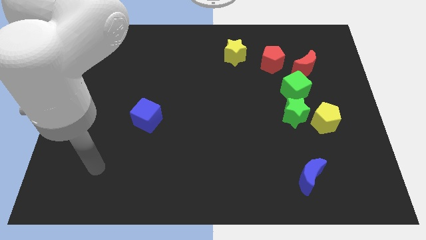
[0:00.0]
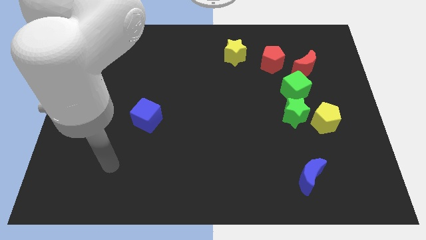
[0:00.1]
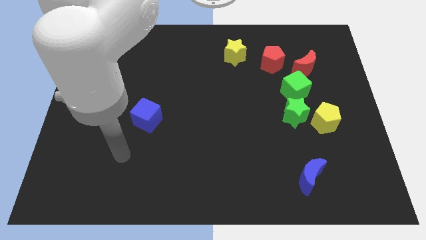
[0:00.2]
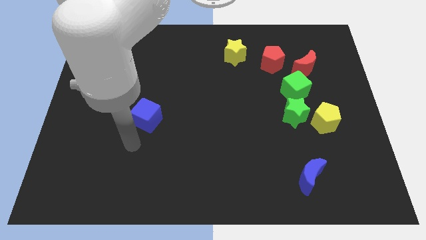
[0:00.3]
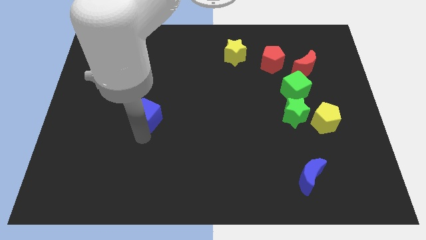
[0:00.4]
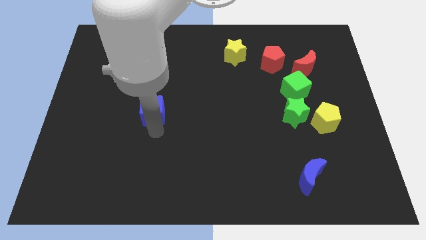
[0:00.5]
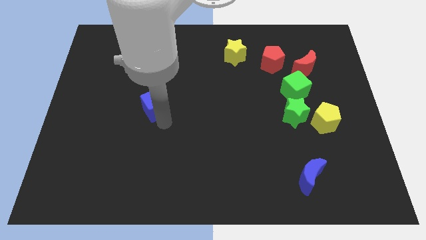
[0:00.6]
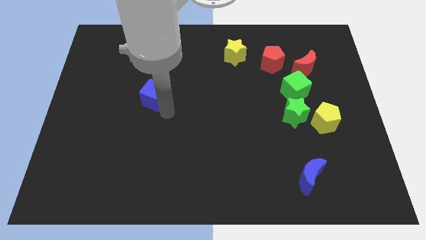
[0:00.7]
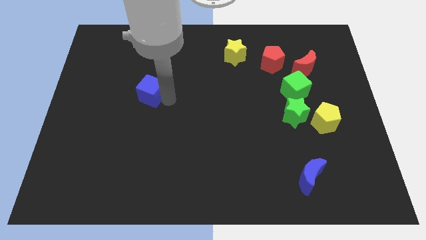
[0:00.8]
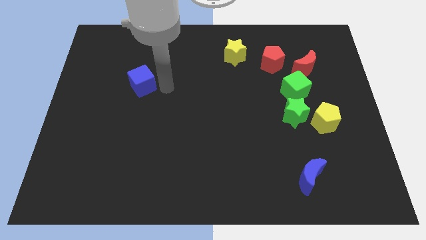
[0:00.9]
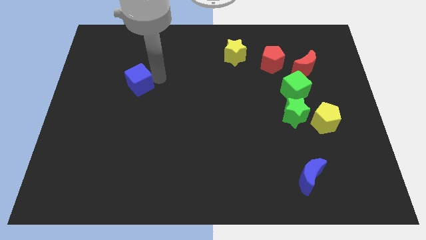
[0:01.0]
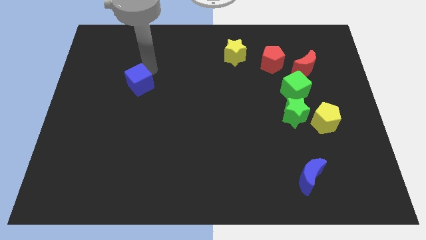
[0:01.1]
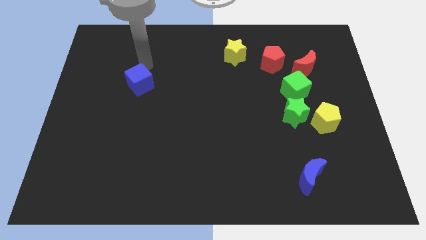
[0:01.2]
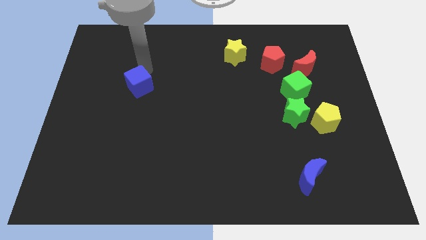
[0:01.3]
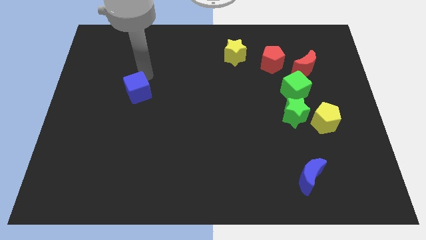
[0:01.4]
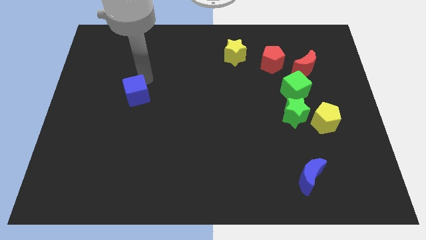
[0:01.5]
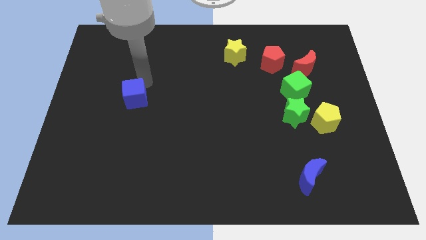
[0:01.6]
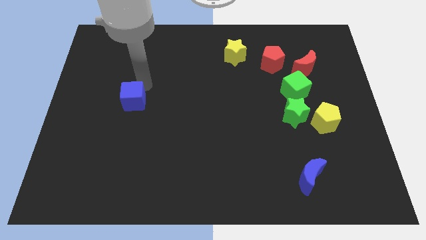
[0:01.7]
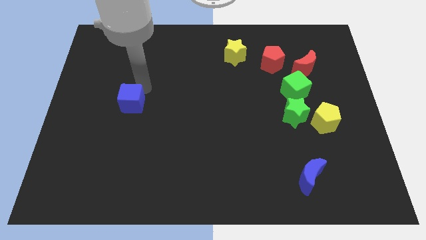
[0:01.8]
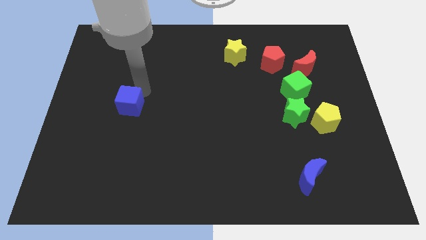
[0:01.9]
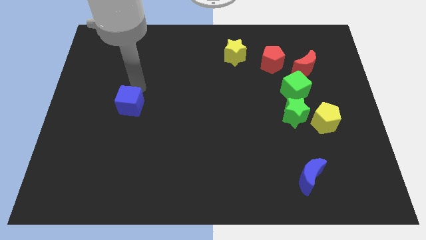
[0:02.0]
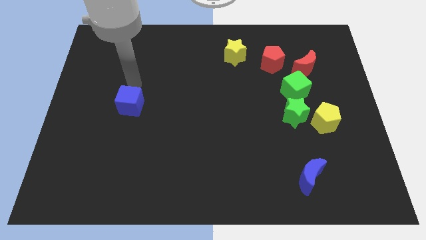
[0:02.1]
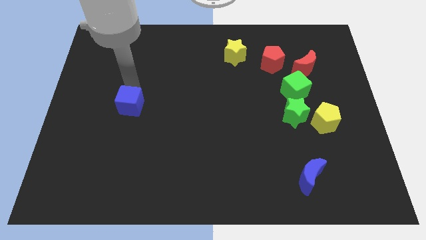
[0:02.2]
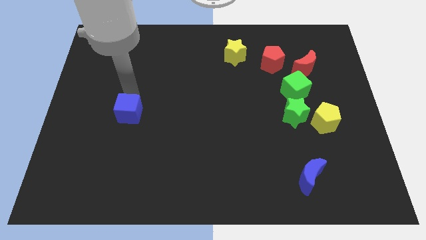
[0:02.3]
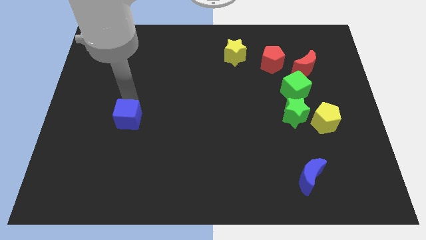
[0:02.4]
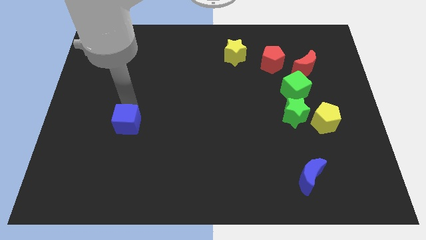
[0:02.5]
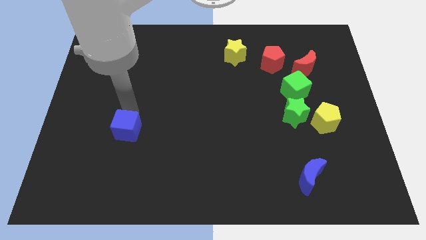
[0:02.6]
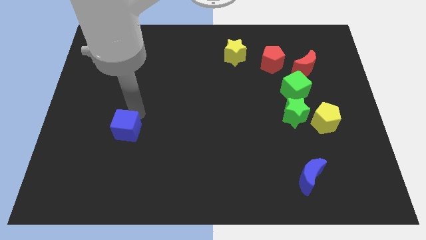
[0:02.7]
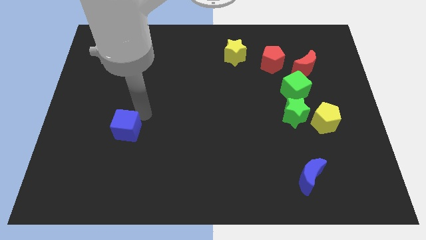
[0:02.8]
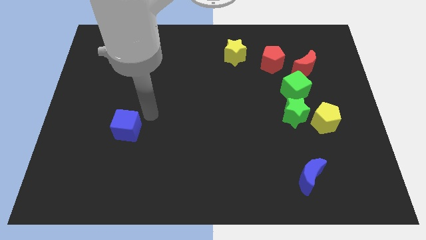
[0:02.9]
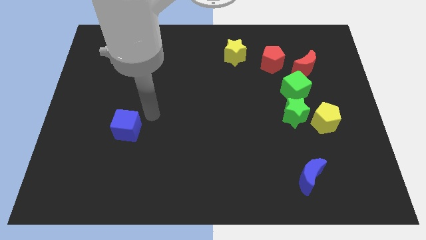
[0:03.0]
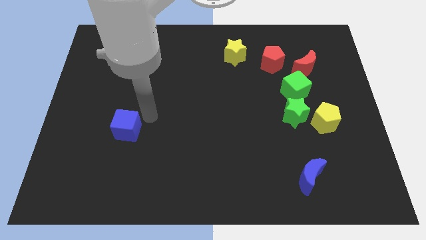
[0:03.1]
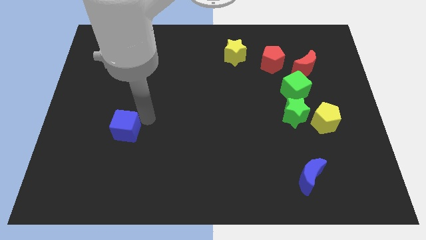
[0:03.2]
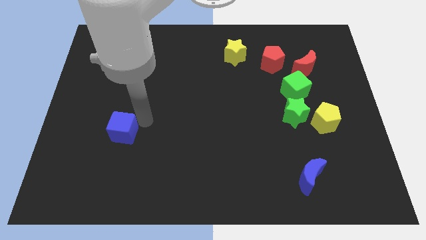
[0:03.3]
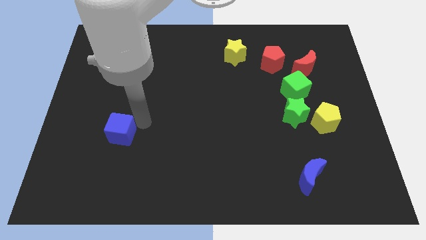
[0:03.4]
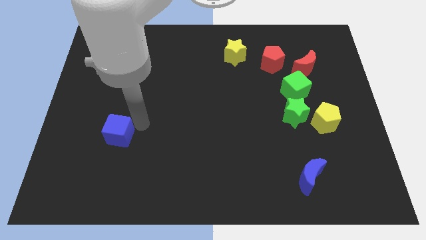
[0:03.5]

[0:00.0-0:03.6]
slide the blue cube a little bit down and left diagonally

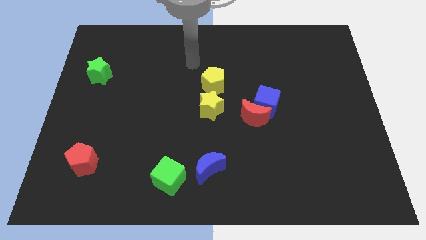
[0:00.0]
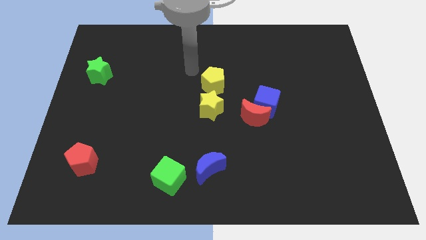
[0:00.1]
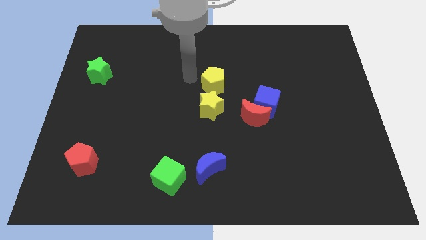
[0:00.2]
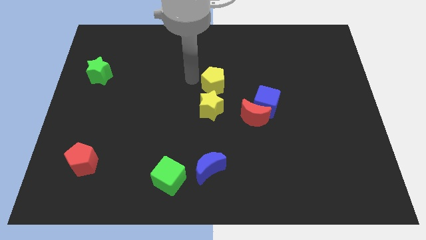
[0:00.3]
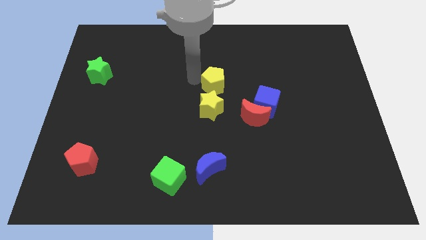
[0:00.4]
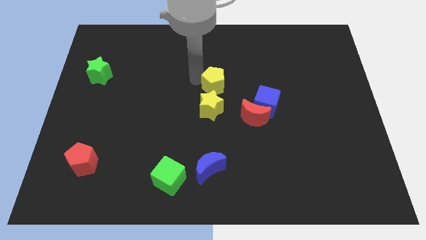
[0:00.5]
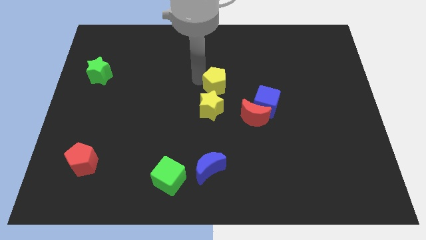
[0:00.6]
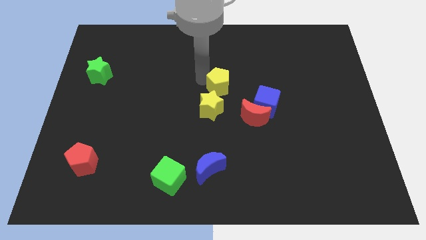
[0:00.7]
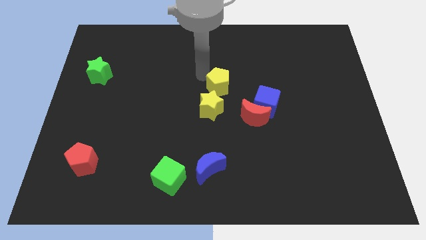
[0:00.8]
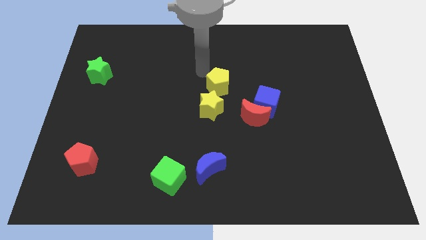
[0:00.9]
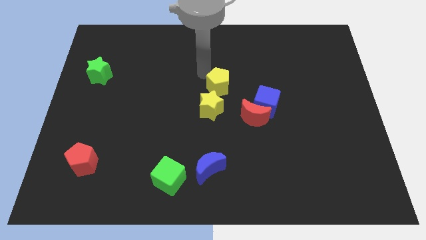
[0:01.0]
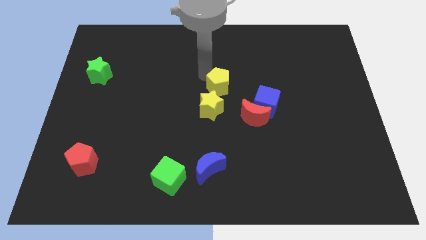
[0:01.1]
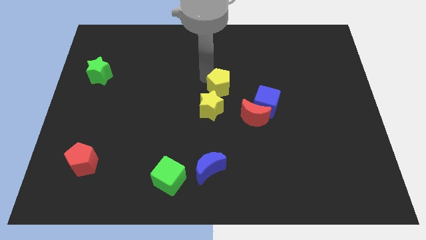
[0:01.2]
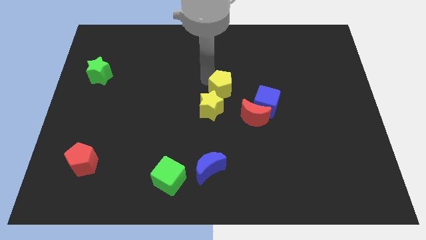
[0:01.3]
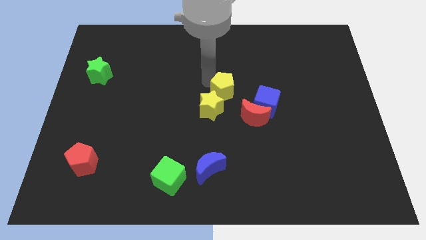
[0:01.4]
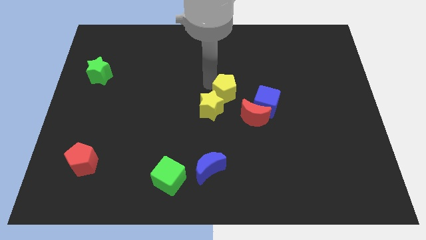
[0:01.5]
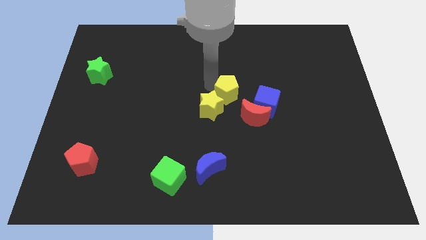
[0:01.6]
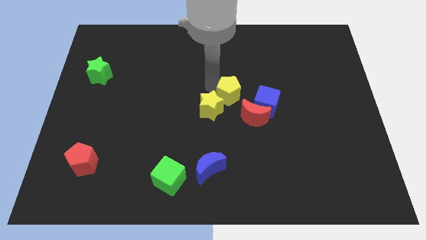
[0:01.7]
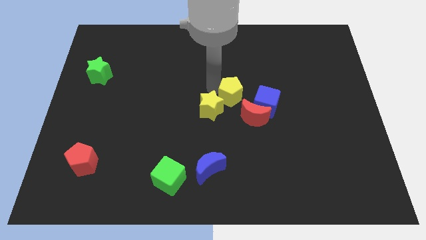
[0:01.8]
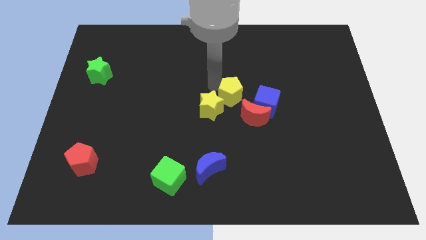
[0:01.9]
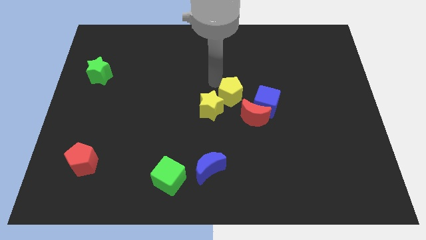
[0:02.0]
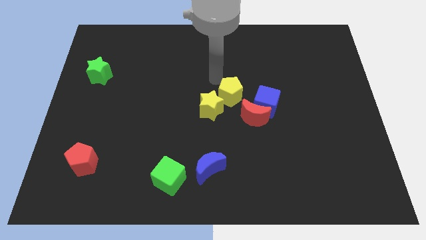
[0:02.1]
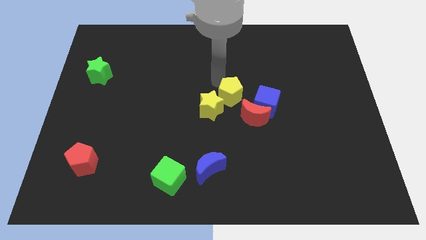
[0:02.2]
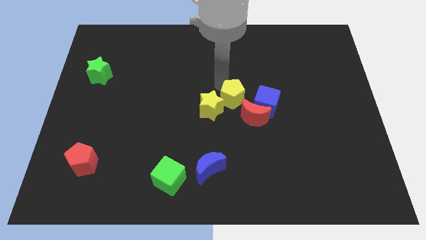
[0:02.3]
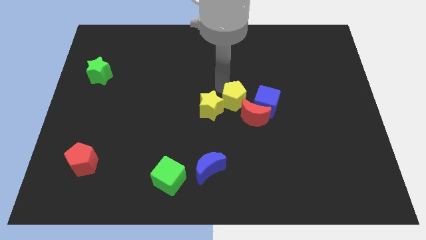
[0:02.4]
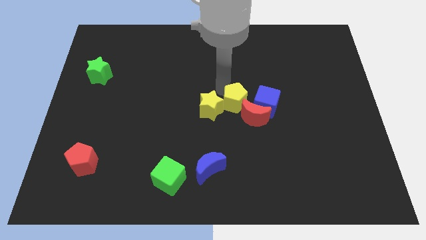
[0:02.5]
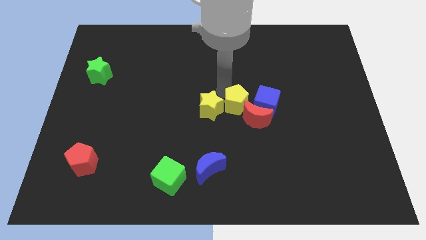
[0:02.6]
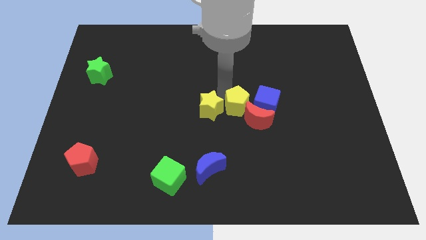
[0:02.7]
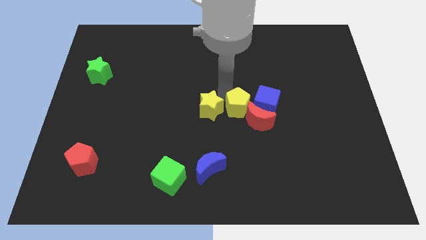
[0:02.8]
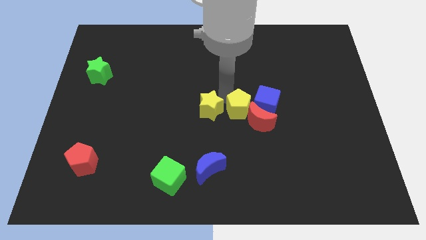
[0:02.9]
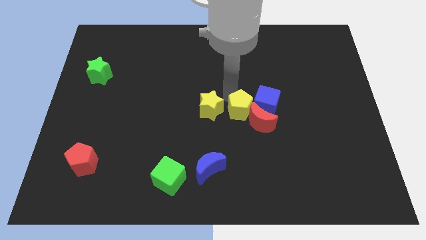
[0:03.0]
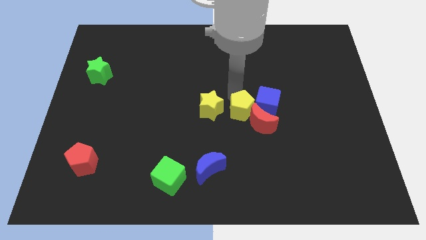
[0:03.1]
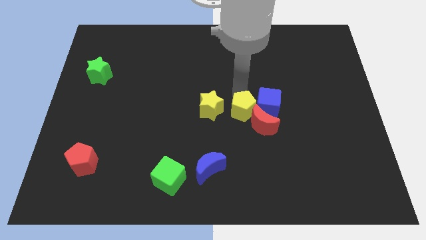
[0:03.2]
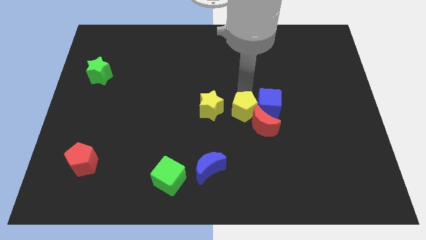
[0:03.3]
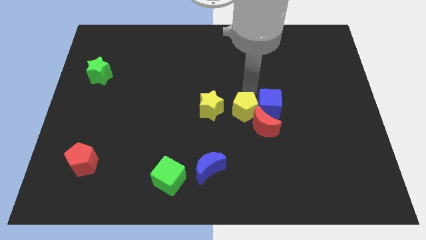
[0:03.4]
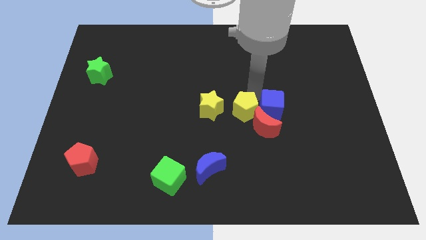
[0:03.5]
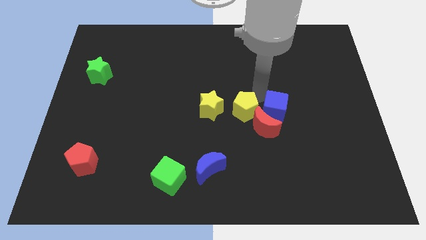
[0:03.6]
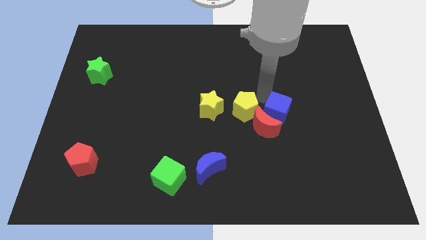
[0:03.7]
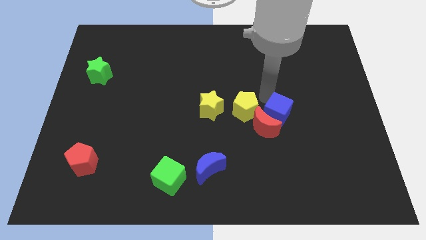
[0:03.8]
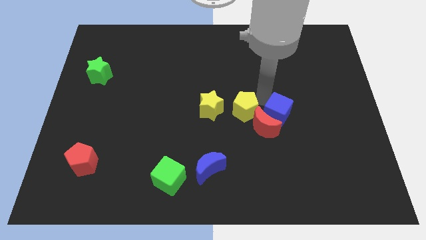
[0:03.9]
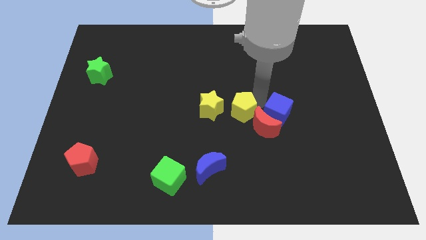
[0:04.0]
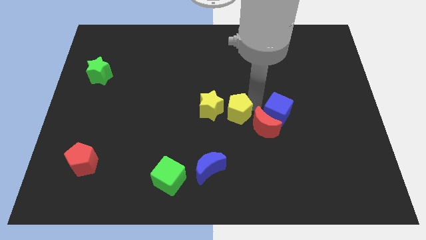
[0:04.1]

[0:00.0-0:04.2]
slightly slide the yellow pentagon down

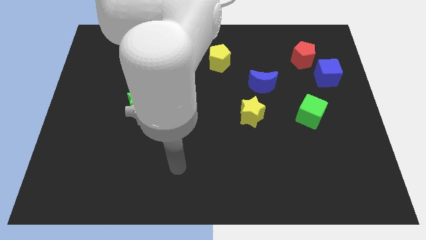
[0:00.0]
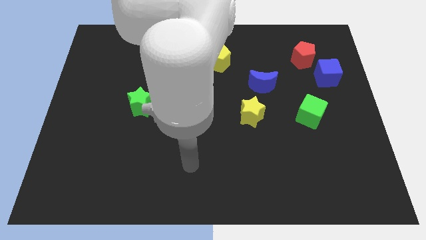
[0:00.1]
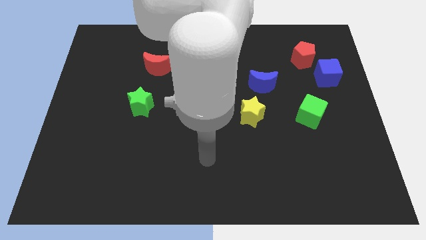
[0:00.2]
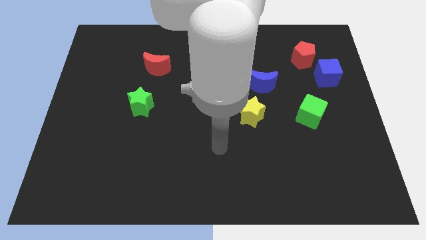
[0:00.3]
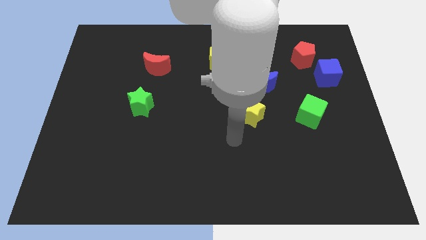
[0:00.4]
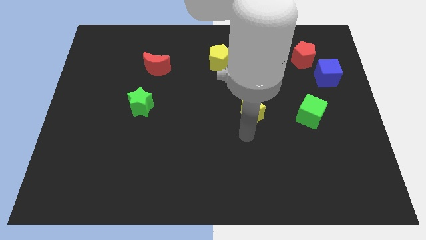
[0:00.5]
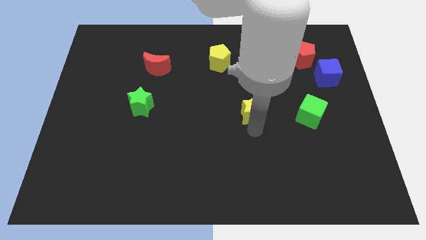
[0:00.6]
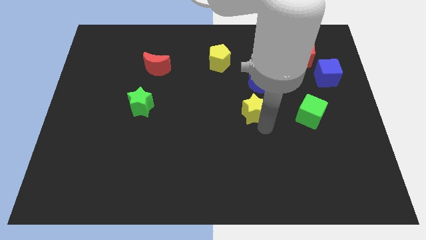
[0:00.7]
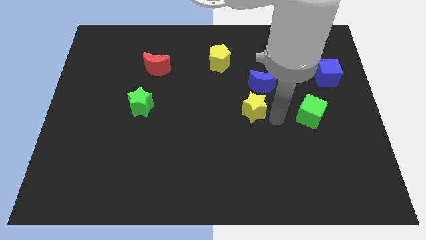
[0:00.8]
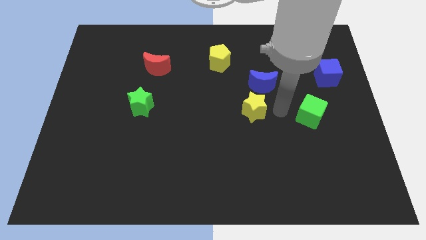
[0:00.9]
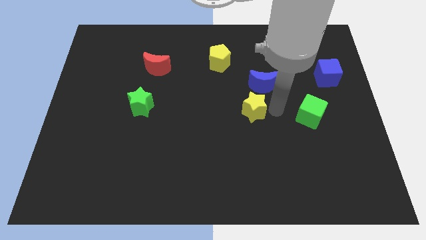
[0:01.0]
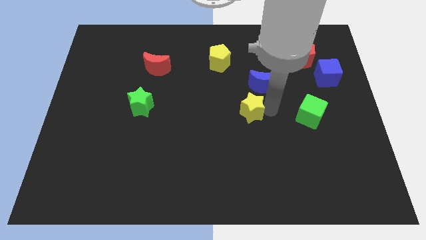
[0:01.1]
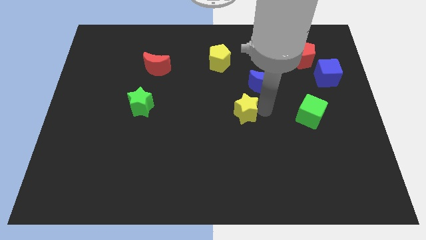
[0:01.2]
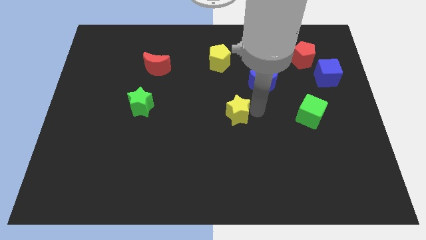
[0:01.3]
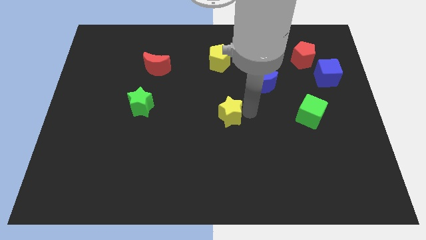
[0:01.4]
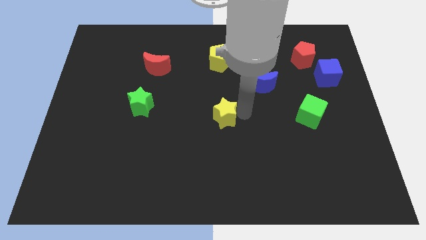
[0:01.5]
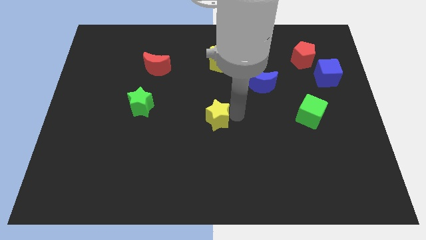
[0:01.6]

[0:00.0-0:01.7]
slightly slide the yellow star to the left
